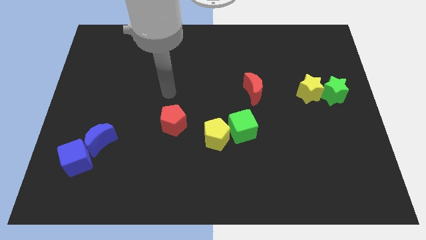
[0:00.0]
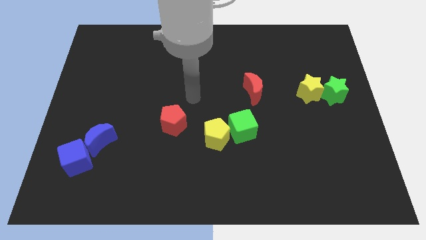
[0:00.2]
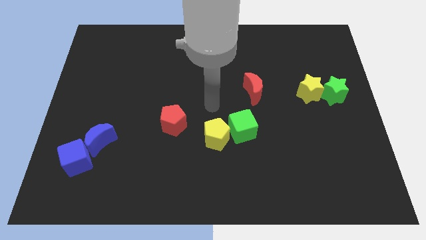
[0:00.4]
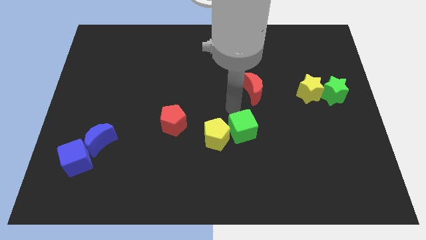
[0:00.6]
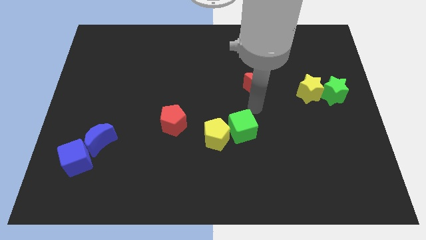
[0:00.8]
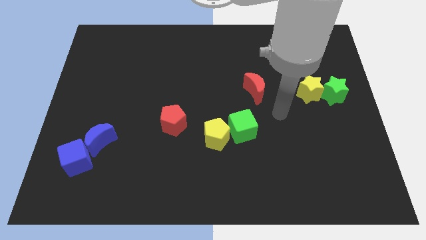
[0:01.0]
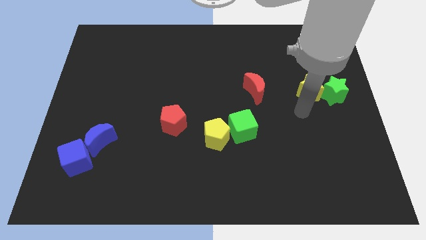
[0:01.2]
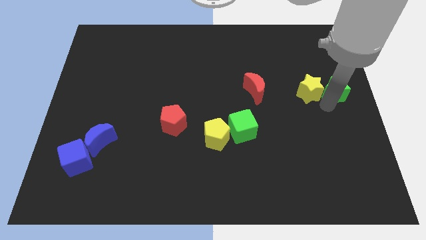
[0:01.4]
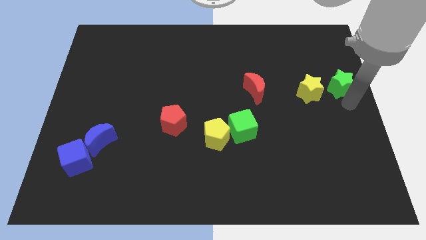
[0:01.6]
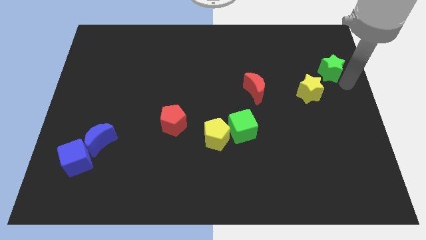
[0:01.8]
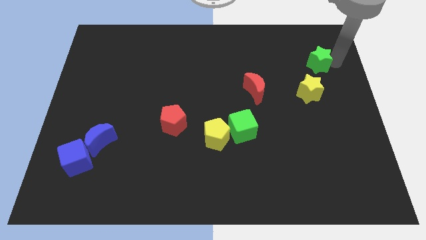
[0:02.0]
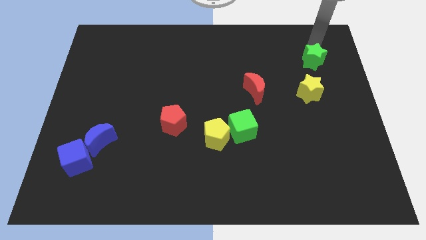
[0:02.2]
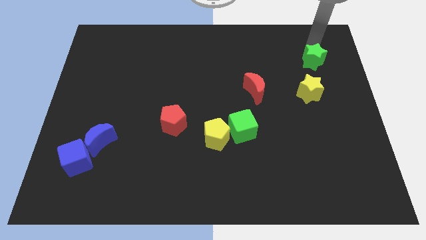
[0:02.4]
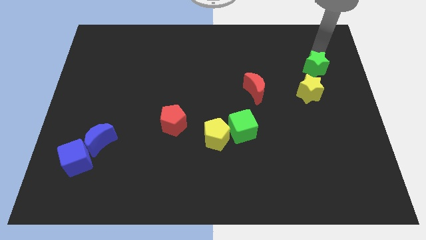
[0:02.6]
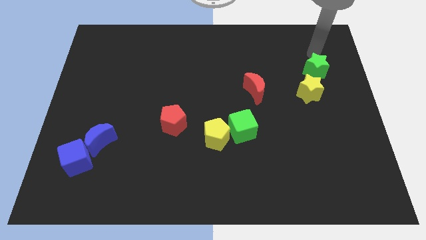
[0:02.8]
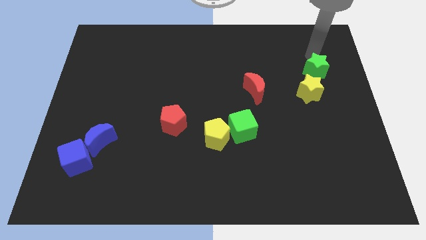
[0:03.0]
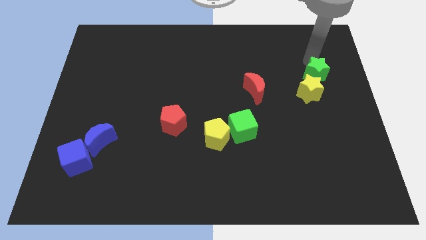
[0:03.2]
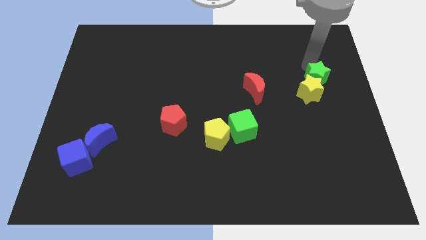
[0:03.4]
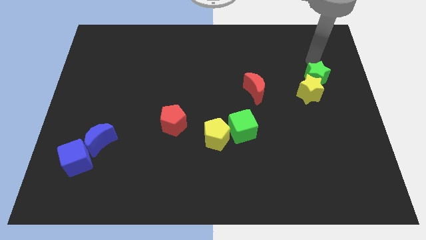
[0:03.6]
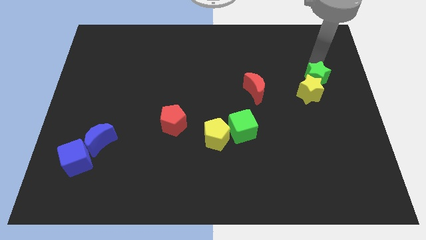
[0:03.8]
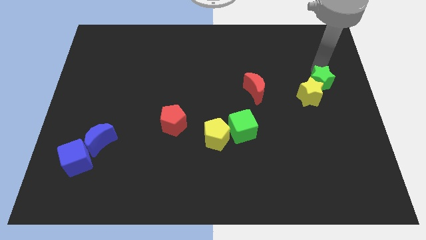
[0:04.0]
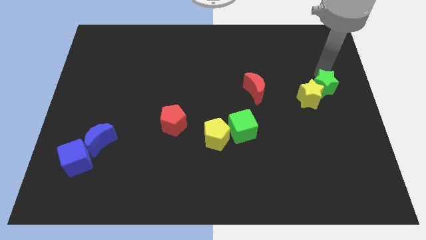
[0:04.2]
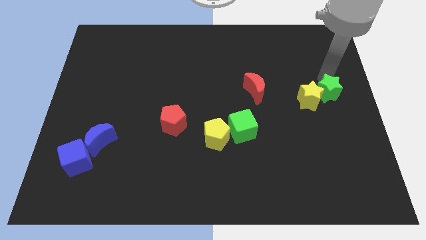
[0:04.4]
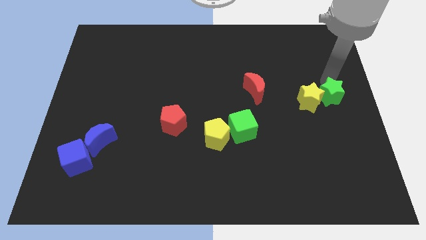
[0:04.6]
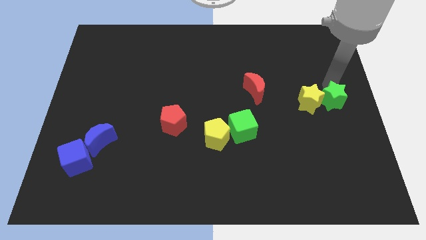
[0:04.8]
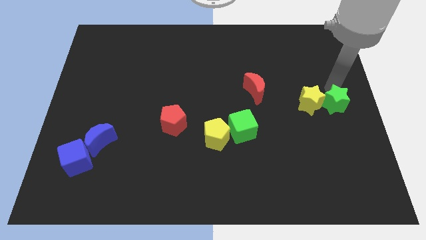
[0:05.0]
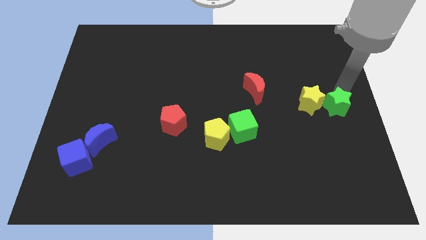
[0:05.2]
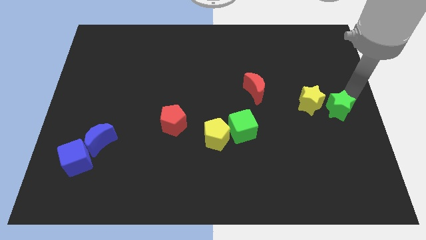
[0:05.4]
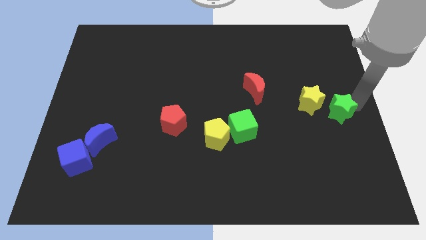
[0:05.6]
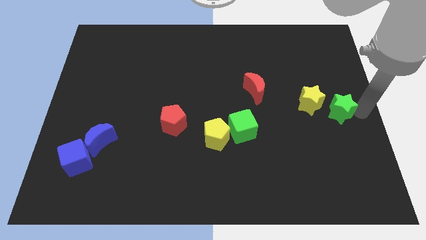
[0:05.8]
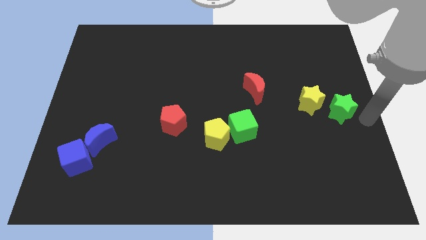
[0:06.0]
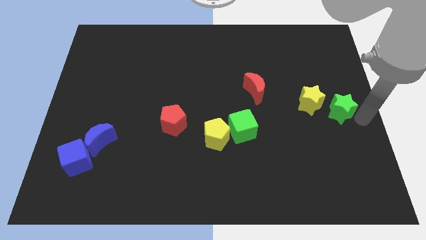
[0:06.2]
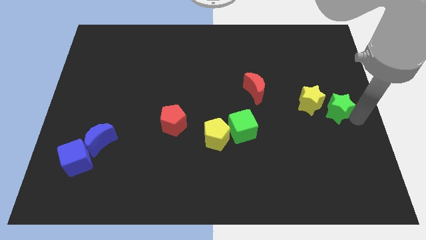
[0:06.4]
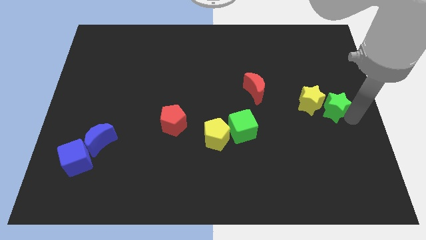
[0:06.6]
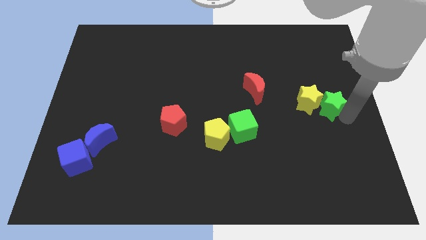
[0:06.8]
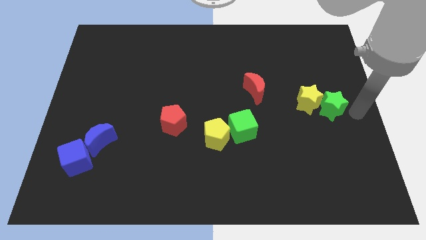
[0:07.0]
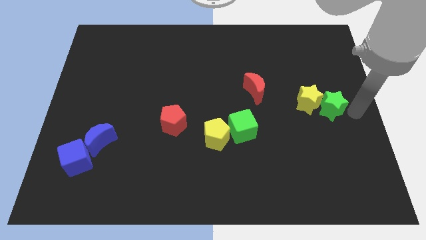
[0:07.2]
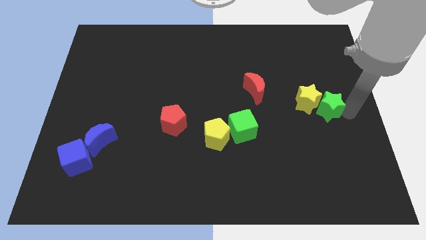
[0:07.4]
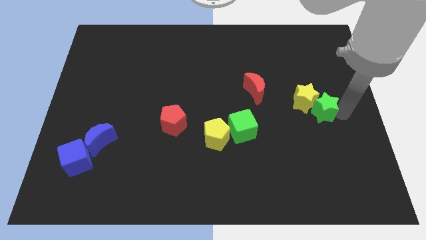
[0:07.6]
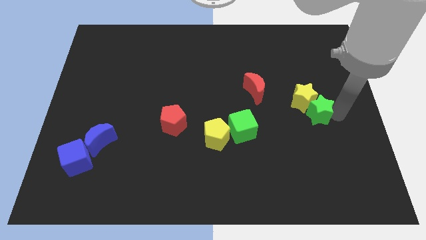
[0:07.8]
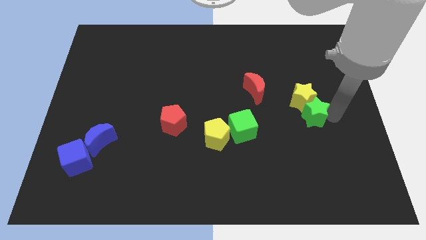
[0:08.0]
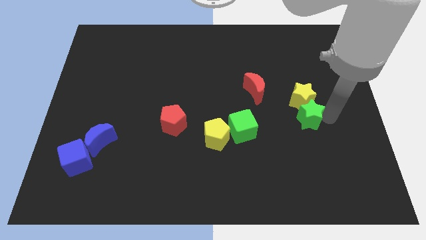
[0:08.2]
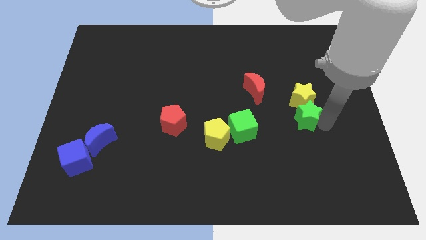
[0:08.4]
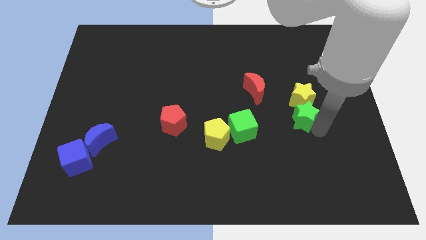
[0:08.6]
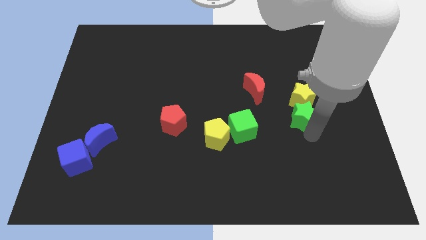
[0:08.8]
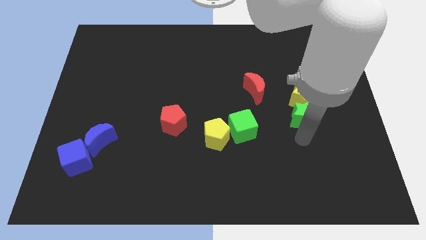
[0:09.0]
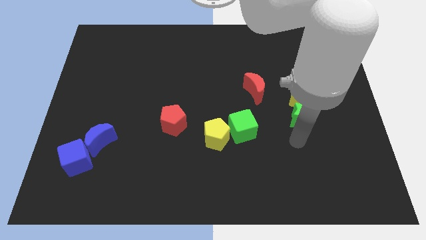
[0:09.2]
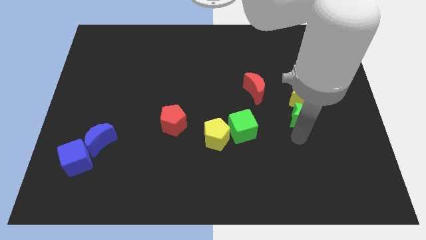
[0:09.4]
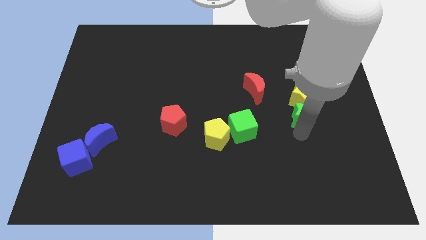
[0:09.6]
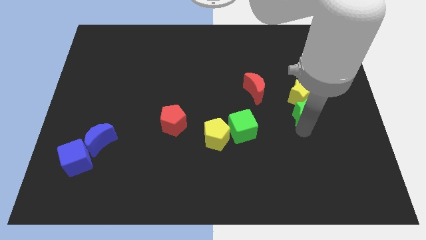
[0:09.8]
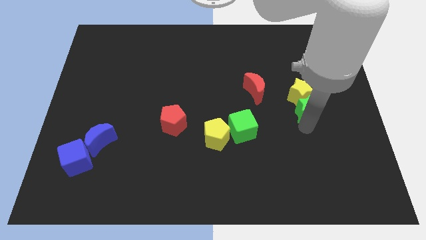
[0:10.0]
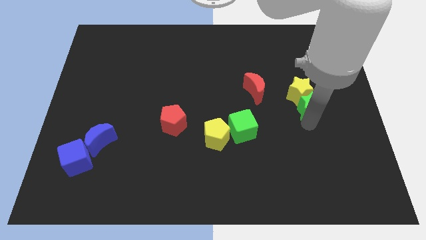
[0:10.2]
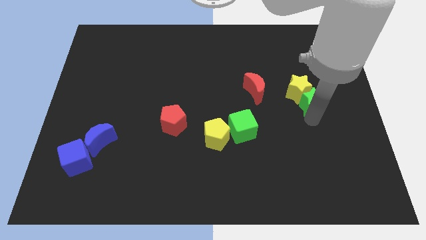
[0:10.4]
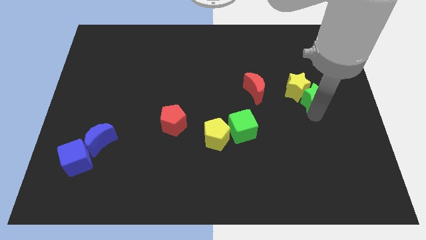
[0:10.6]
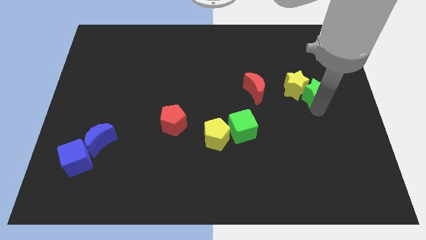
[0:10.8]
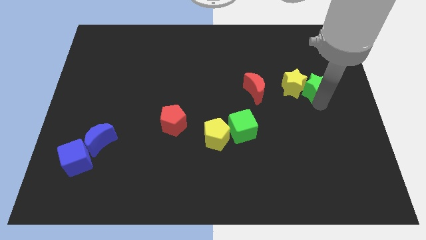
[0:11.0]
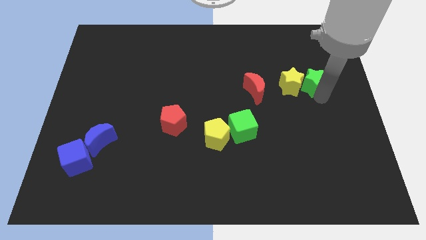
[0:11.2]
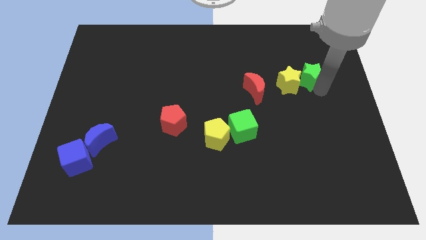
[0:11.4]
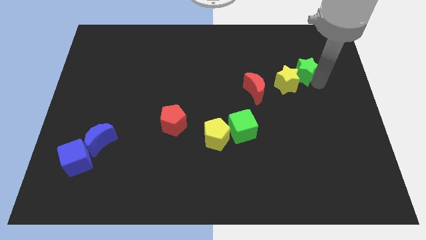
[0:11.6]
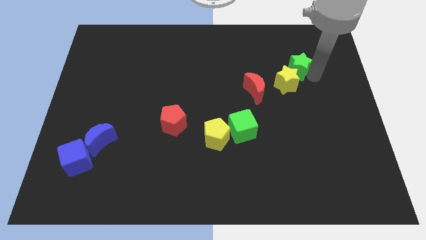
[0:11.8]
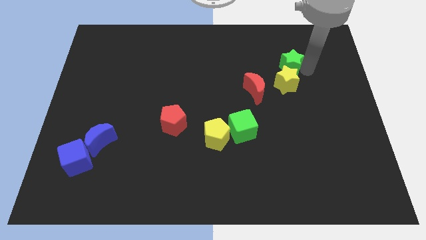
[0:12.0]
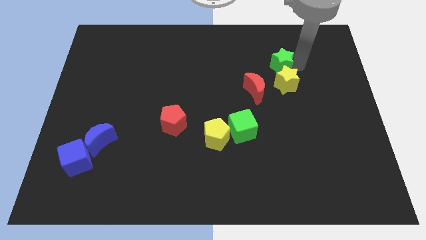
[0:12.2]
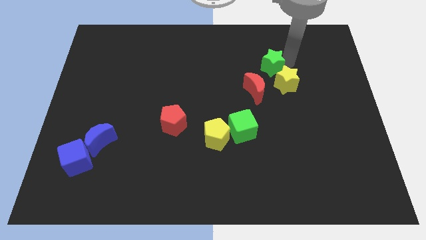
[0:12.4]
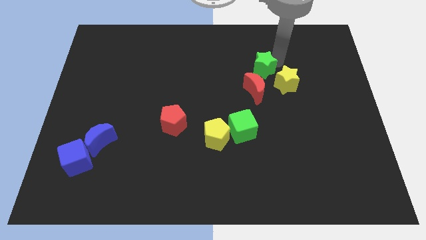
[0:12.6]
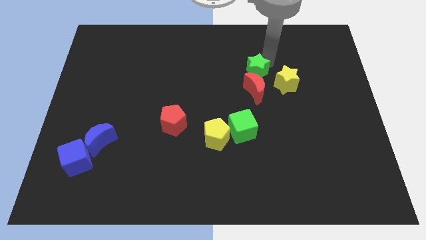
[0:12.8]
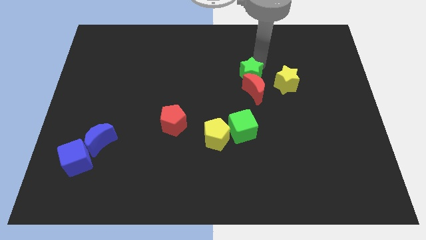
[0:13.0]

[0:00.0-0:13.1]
move the green star to the center

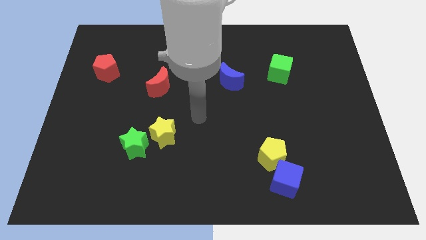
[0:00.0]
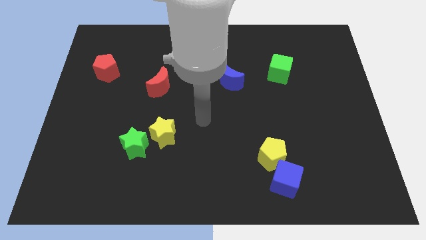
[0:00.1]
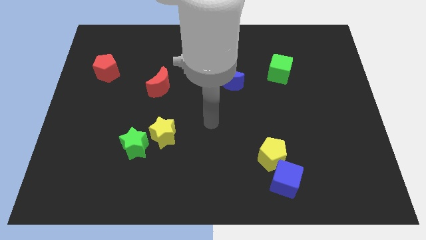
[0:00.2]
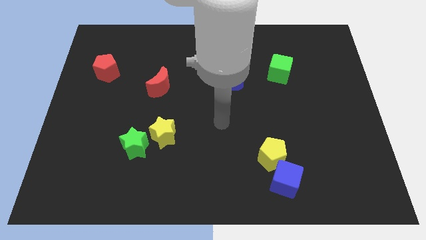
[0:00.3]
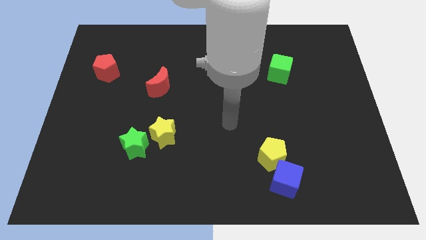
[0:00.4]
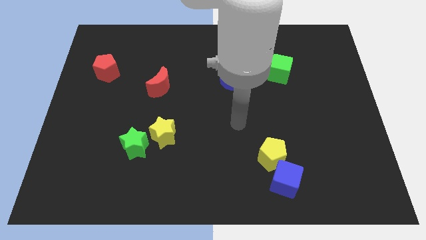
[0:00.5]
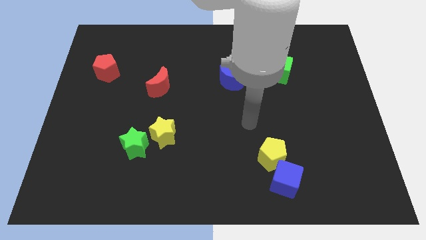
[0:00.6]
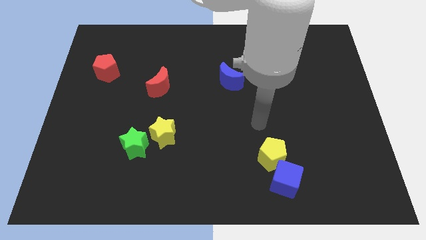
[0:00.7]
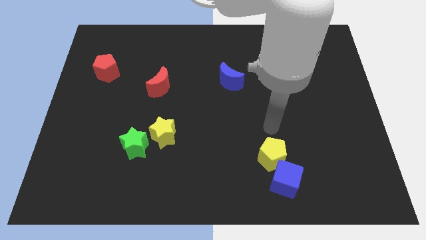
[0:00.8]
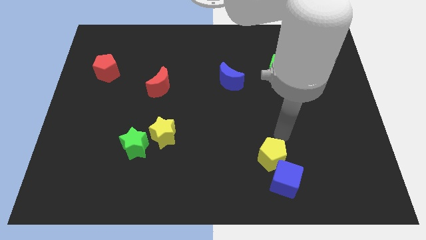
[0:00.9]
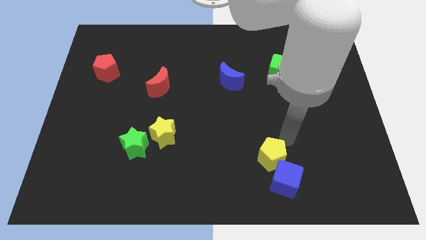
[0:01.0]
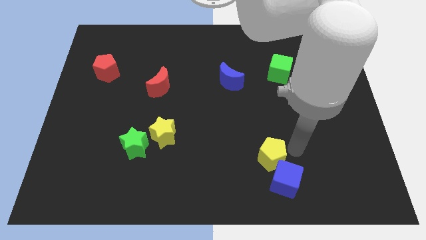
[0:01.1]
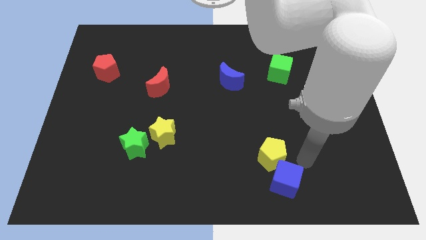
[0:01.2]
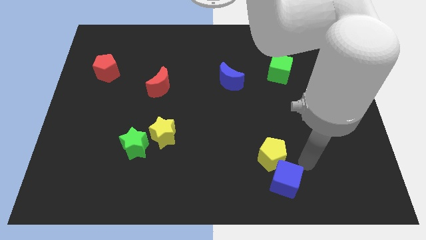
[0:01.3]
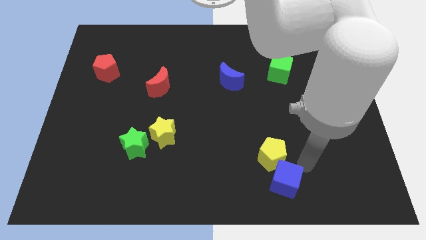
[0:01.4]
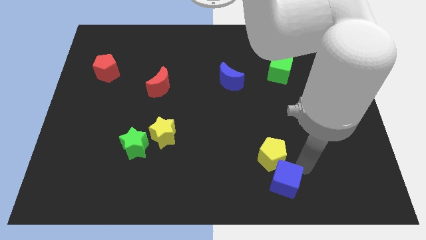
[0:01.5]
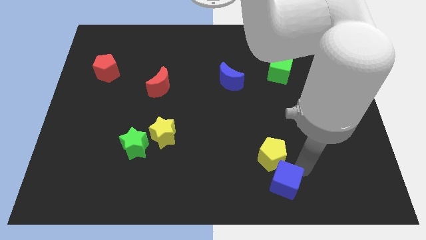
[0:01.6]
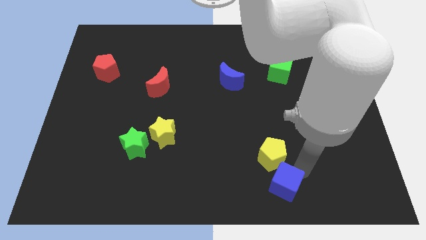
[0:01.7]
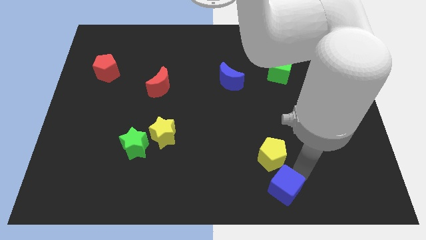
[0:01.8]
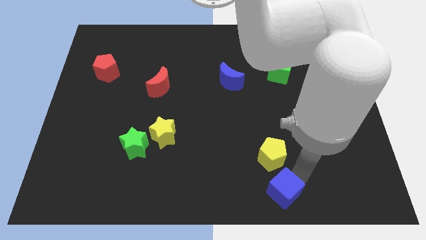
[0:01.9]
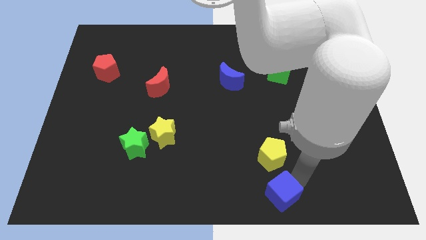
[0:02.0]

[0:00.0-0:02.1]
slide the blue cube to the bottom side
